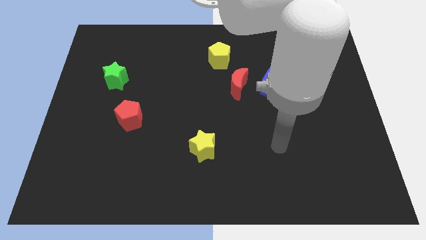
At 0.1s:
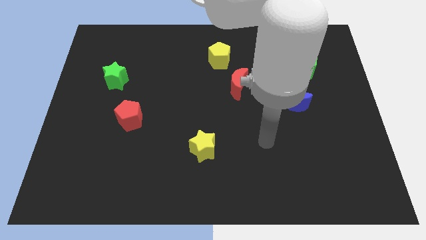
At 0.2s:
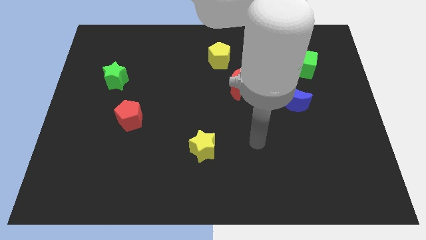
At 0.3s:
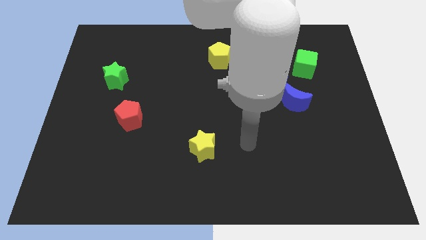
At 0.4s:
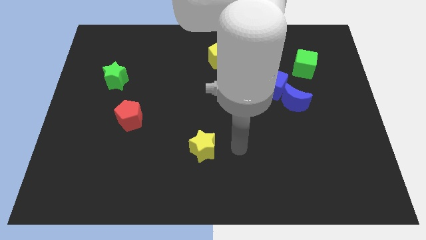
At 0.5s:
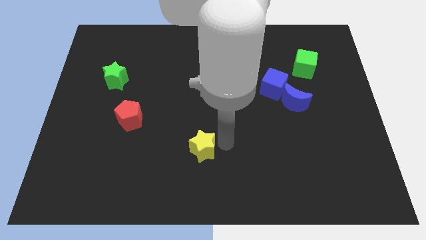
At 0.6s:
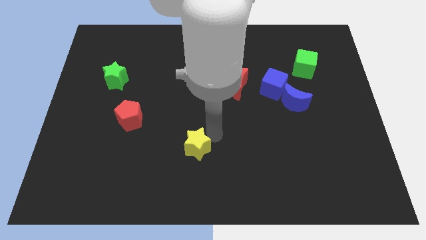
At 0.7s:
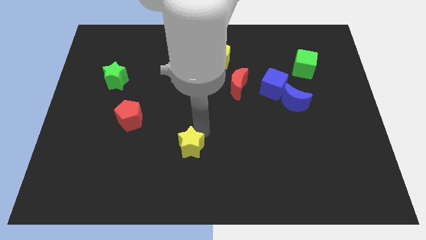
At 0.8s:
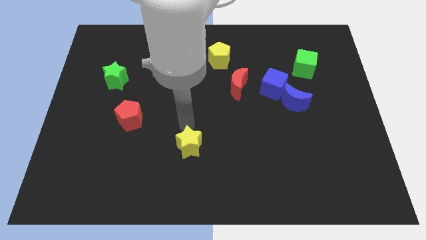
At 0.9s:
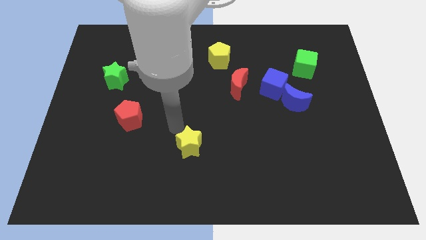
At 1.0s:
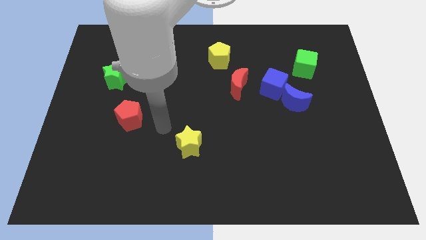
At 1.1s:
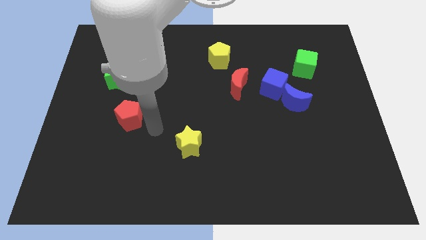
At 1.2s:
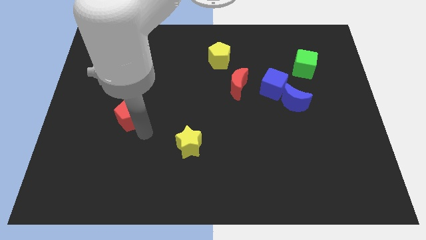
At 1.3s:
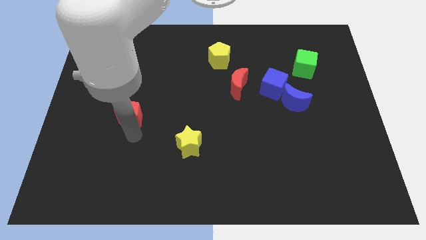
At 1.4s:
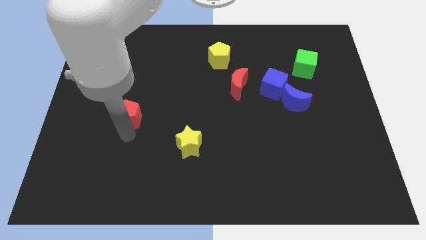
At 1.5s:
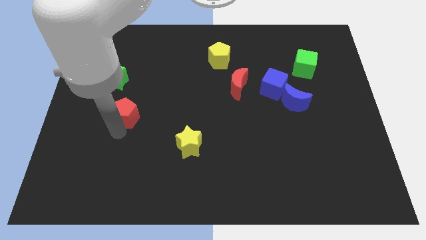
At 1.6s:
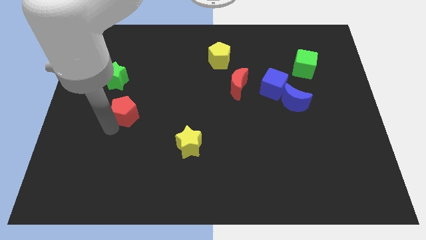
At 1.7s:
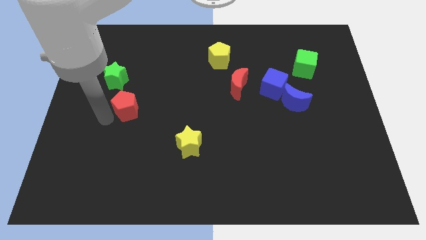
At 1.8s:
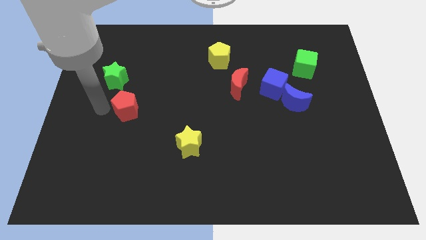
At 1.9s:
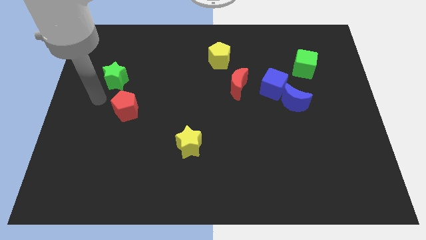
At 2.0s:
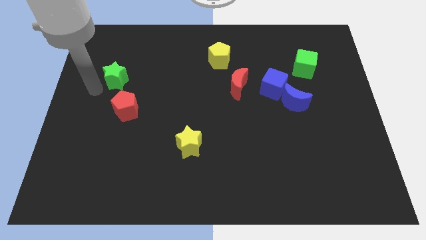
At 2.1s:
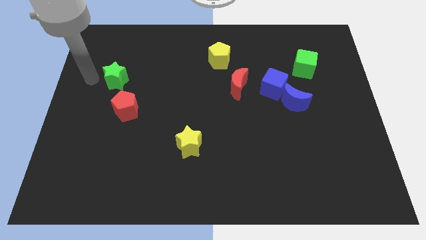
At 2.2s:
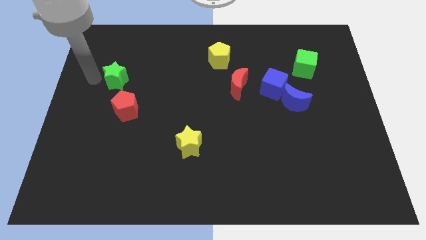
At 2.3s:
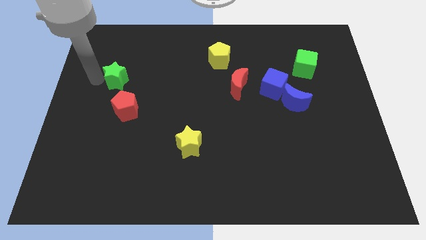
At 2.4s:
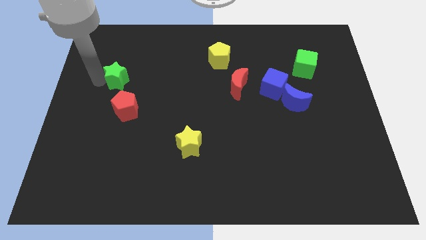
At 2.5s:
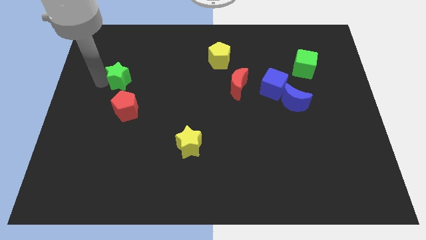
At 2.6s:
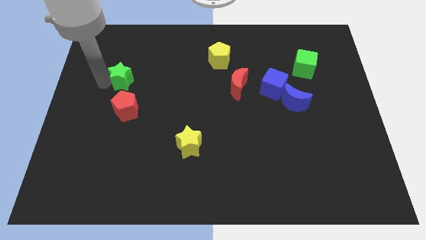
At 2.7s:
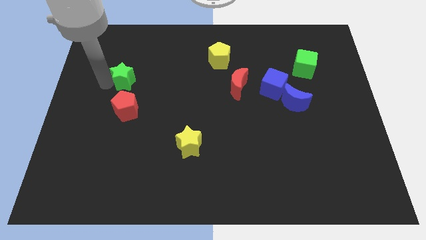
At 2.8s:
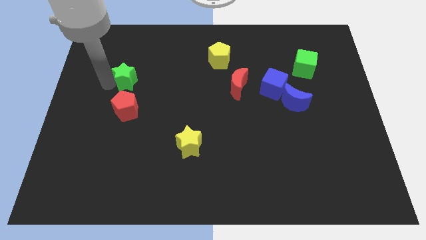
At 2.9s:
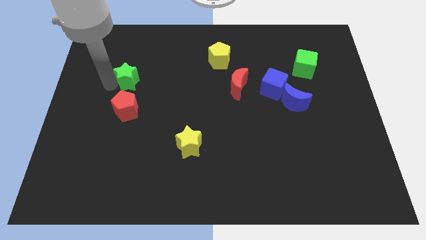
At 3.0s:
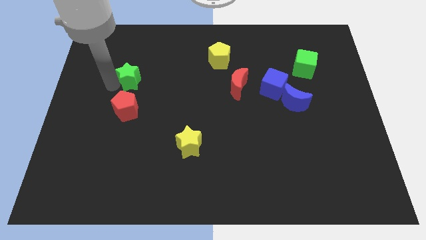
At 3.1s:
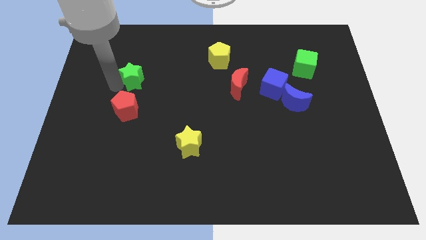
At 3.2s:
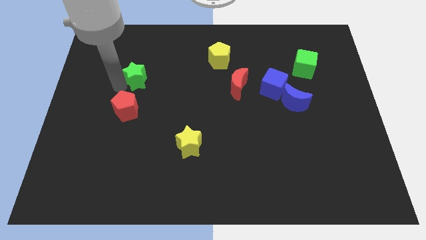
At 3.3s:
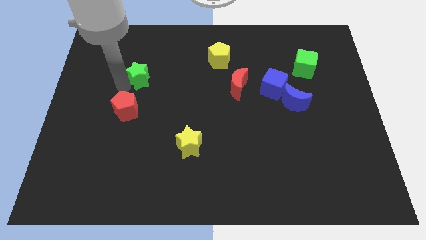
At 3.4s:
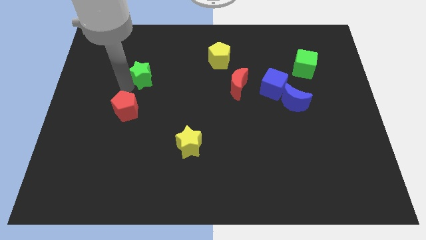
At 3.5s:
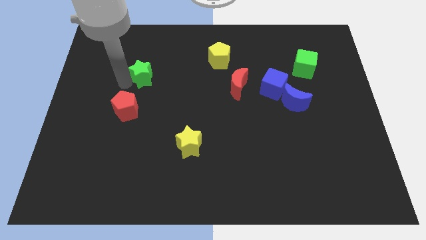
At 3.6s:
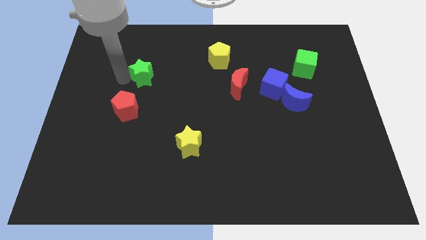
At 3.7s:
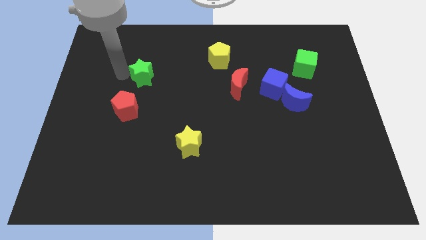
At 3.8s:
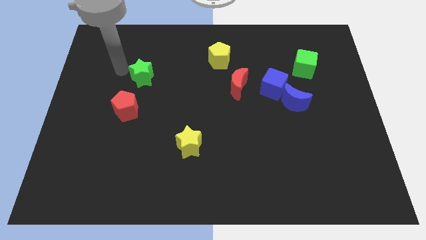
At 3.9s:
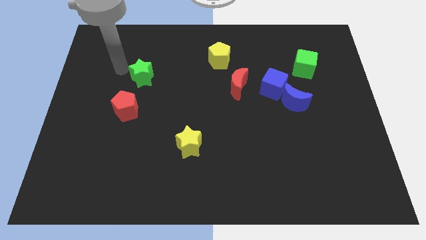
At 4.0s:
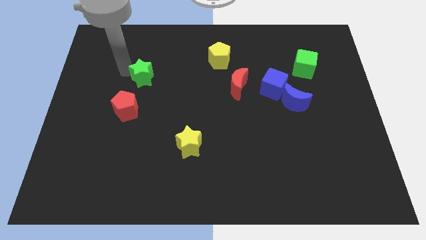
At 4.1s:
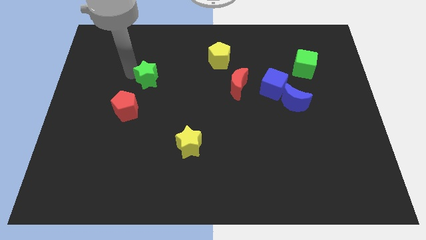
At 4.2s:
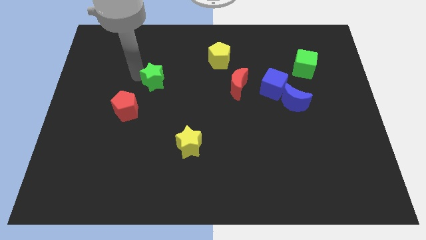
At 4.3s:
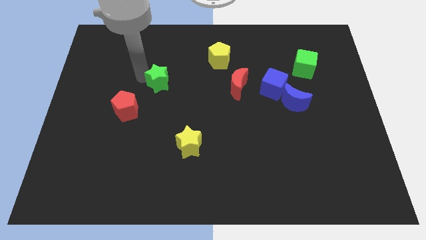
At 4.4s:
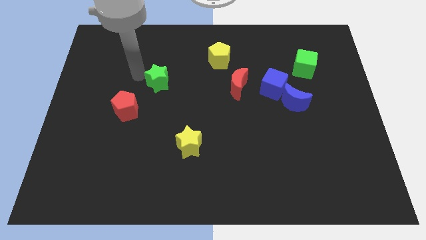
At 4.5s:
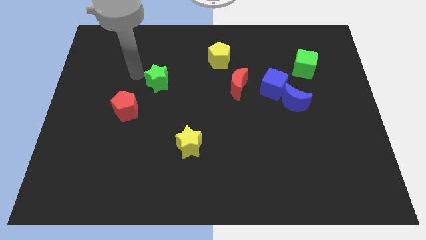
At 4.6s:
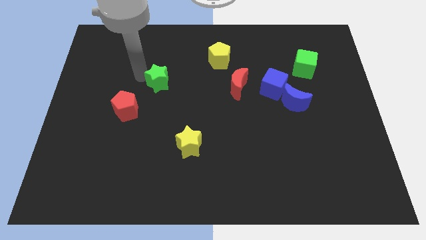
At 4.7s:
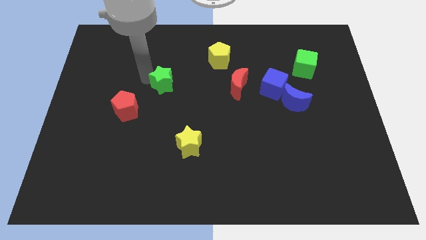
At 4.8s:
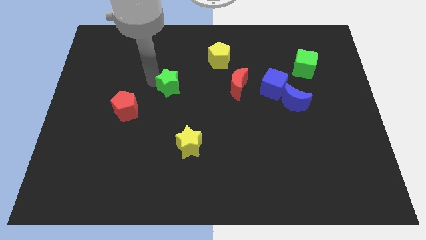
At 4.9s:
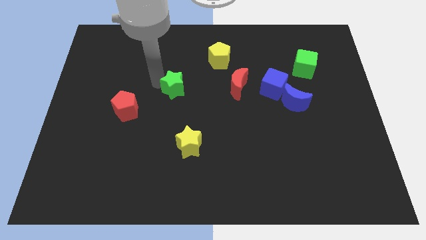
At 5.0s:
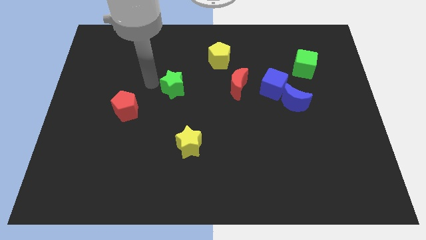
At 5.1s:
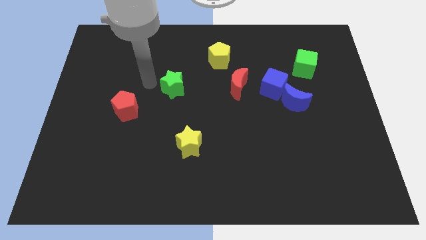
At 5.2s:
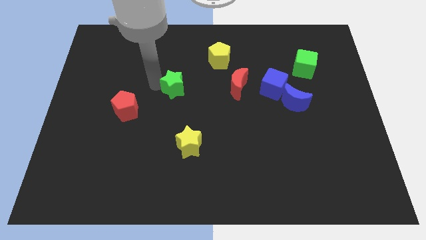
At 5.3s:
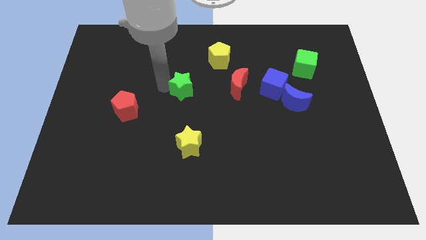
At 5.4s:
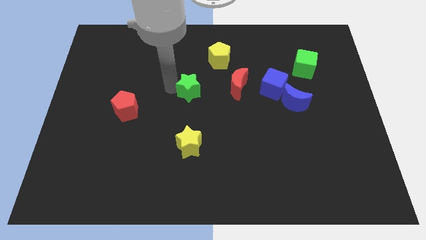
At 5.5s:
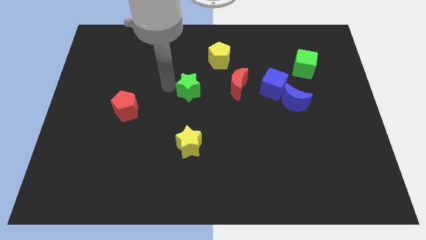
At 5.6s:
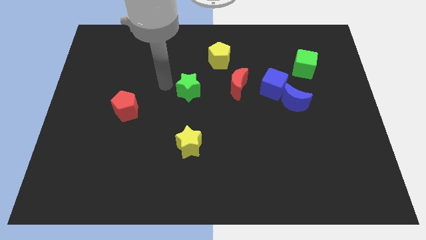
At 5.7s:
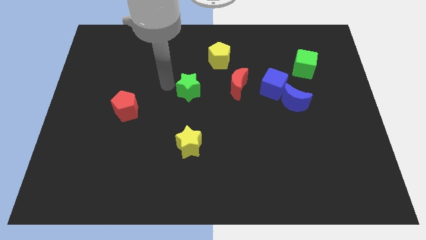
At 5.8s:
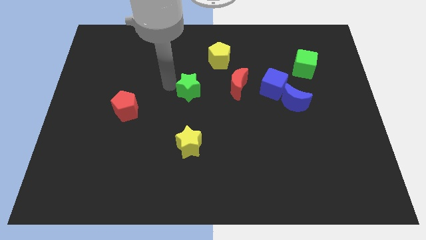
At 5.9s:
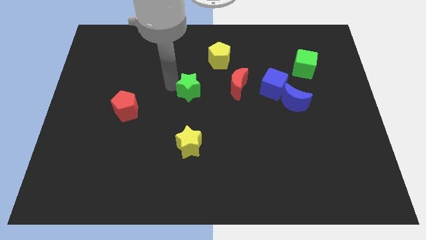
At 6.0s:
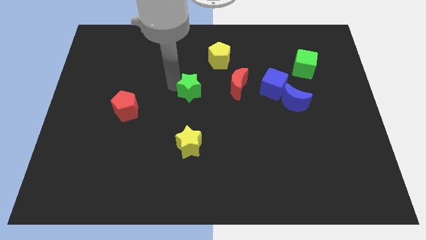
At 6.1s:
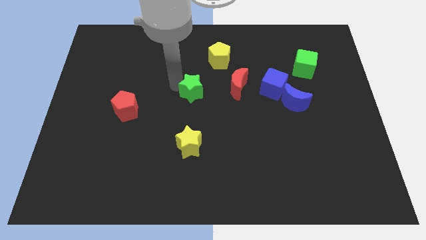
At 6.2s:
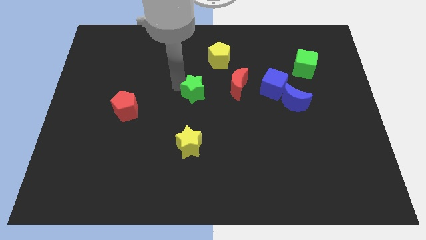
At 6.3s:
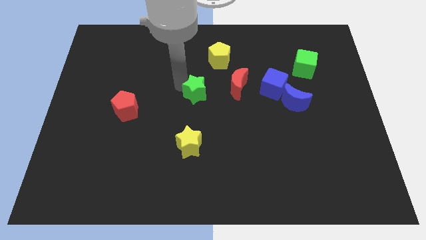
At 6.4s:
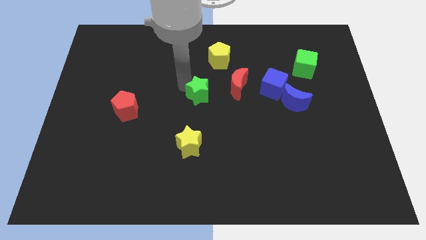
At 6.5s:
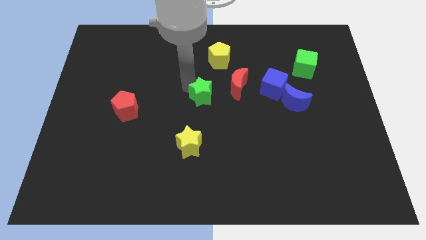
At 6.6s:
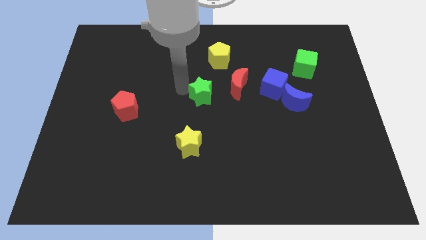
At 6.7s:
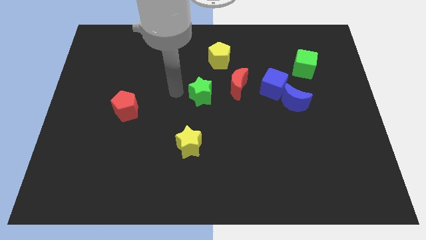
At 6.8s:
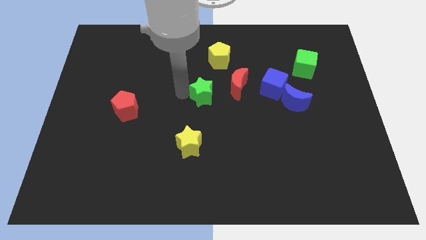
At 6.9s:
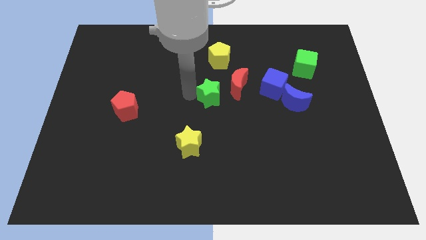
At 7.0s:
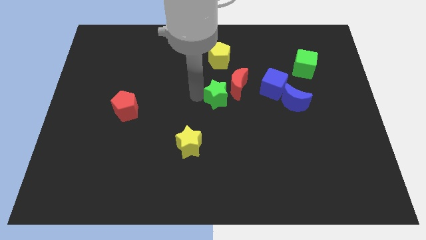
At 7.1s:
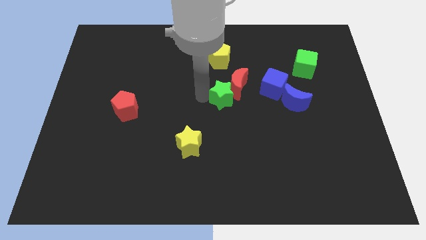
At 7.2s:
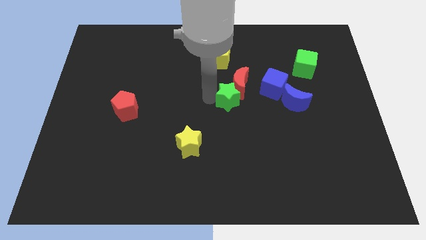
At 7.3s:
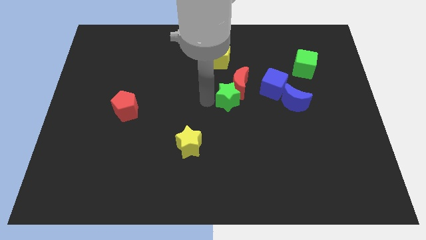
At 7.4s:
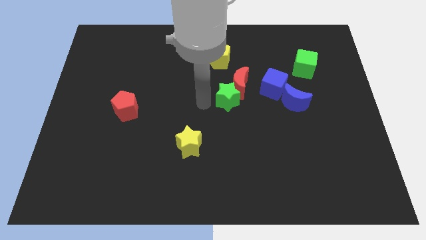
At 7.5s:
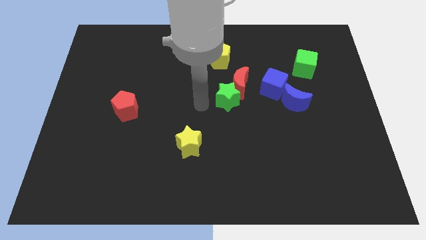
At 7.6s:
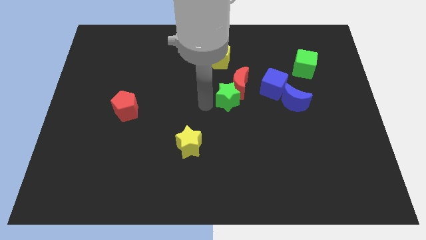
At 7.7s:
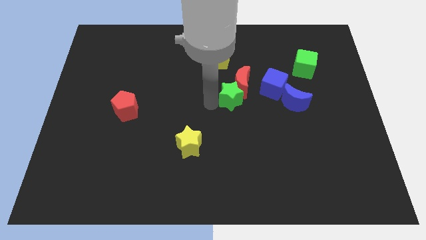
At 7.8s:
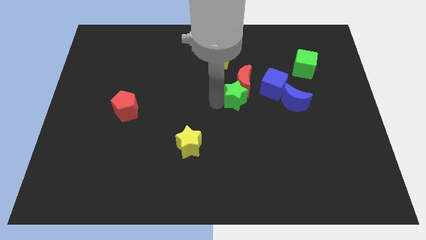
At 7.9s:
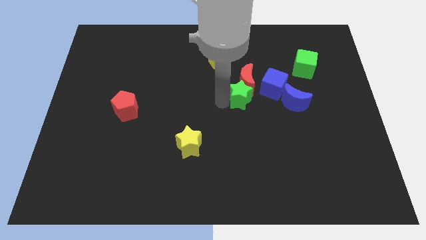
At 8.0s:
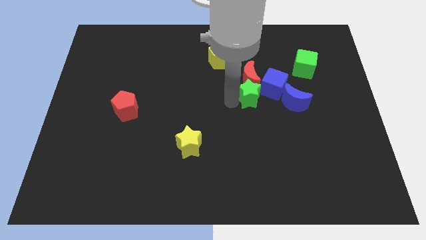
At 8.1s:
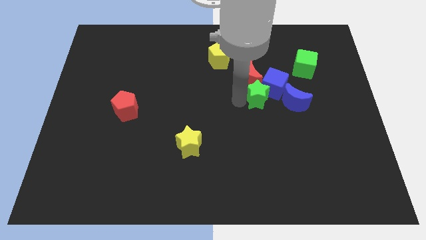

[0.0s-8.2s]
push the green star next to the blue cube
